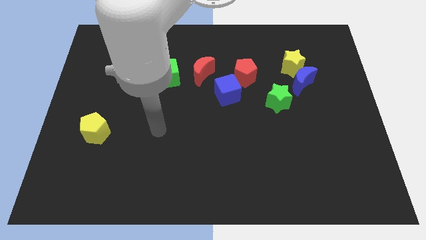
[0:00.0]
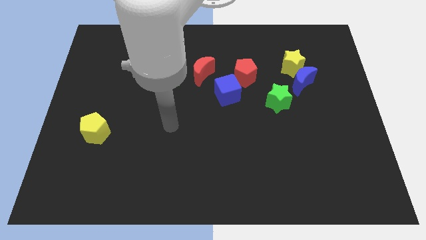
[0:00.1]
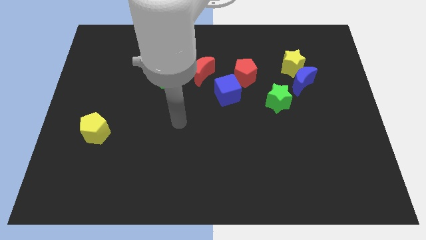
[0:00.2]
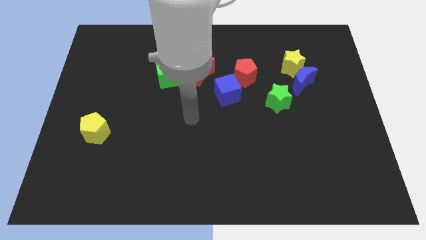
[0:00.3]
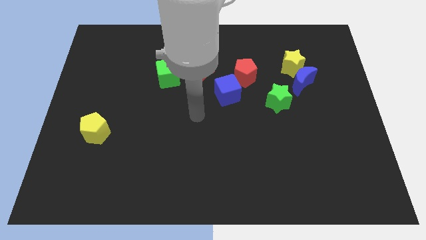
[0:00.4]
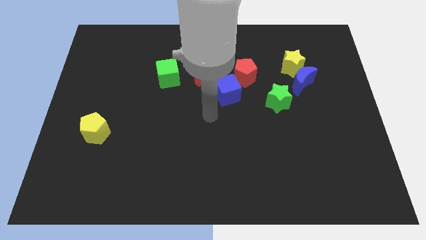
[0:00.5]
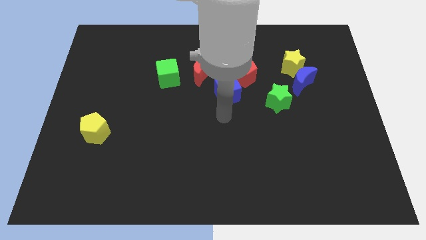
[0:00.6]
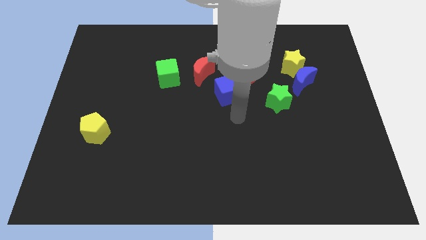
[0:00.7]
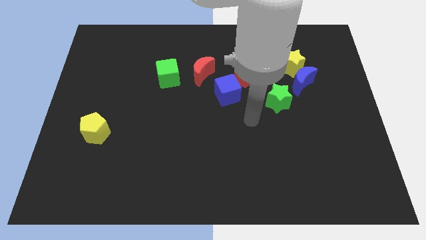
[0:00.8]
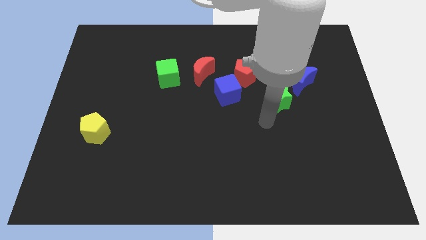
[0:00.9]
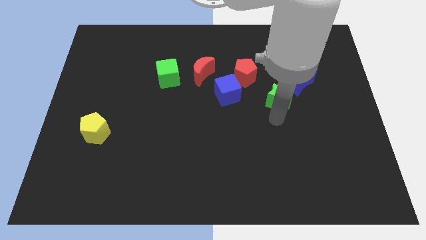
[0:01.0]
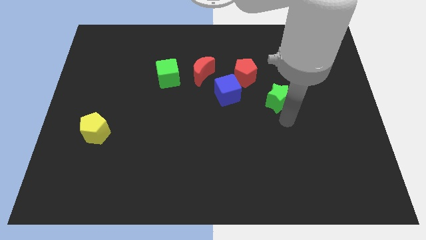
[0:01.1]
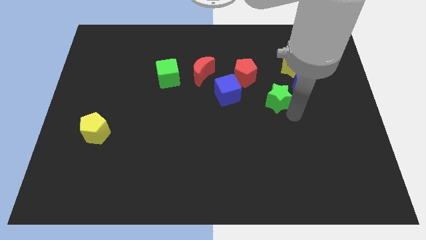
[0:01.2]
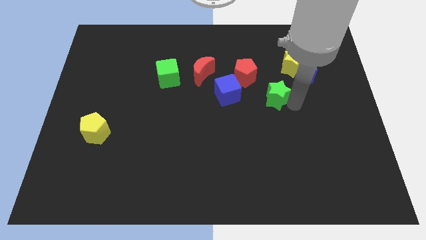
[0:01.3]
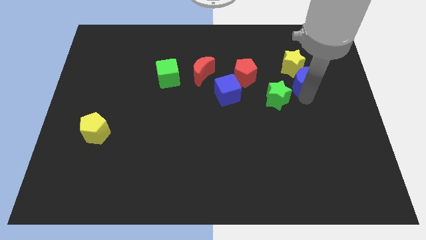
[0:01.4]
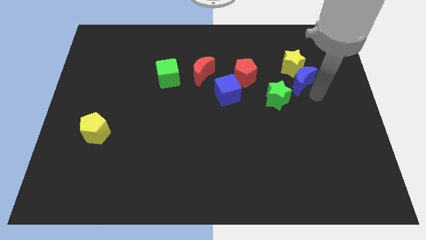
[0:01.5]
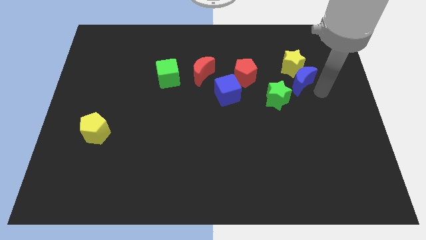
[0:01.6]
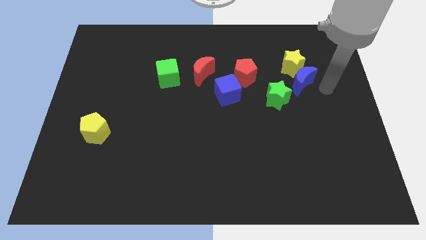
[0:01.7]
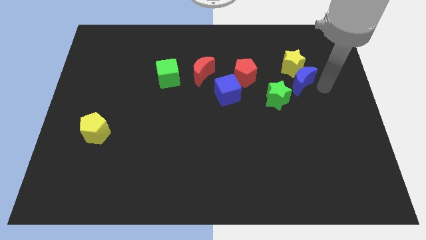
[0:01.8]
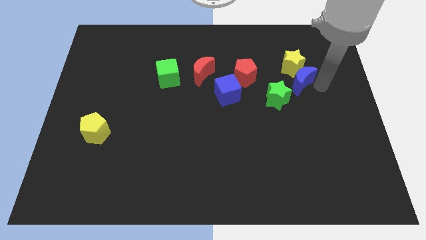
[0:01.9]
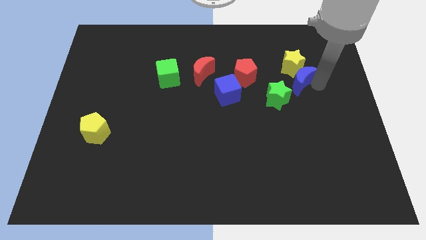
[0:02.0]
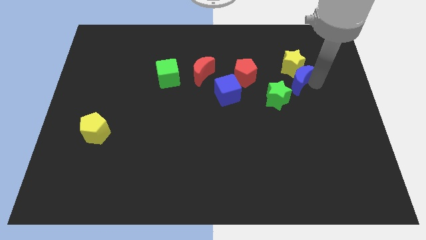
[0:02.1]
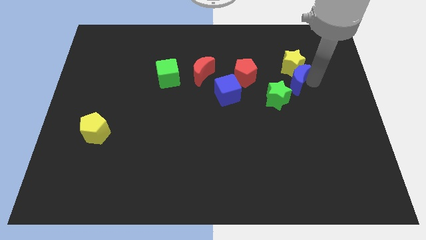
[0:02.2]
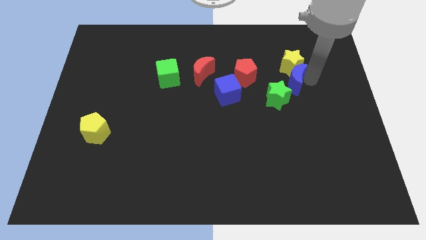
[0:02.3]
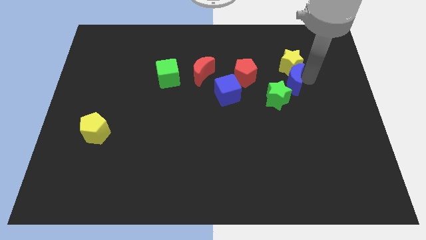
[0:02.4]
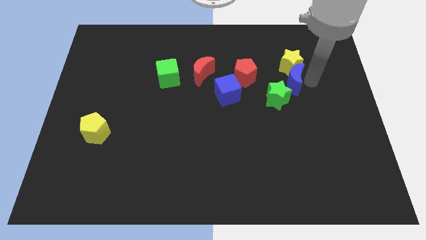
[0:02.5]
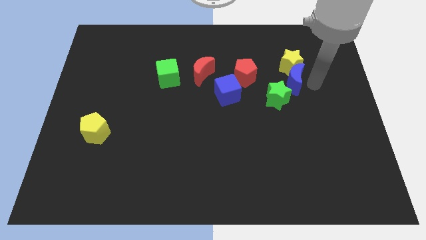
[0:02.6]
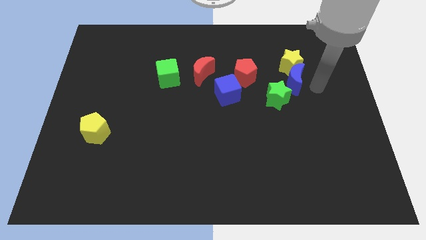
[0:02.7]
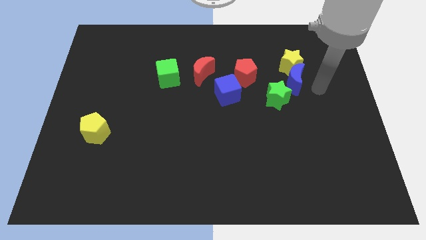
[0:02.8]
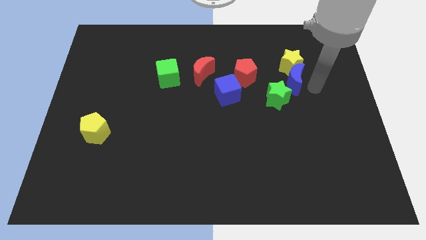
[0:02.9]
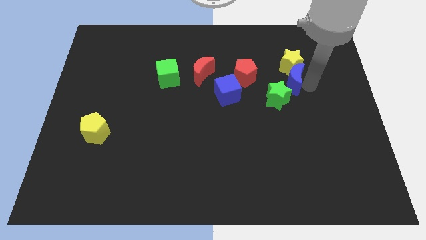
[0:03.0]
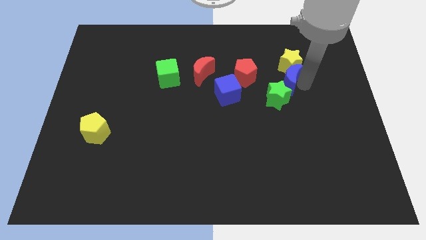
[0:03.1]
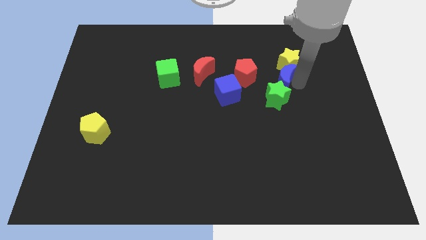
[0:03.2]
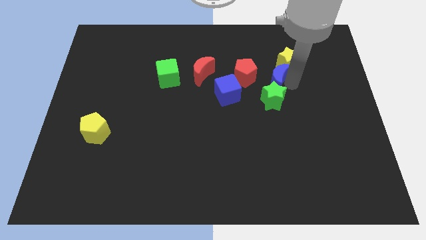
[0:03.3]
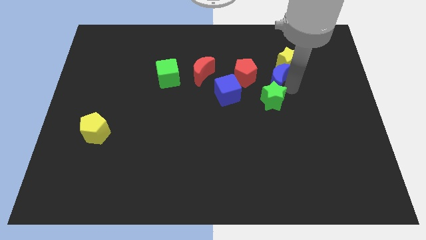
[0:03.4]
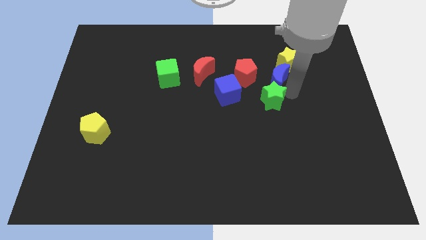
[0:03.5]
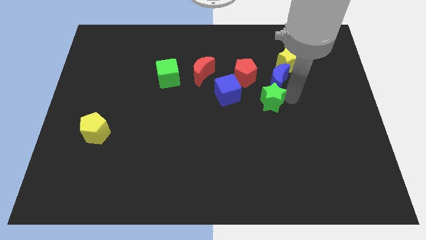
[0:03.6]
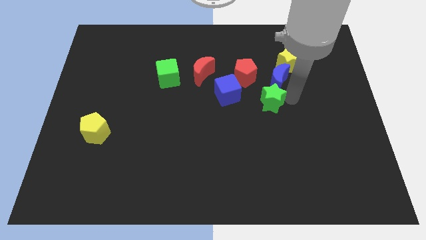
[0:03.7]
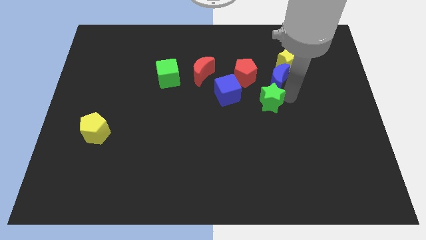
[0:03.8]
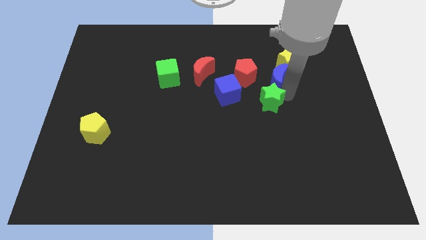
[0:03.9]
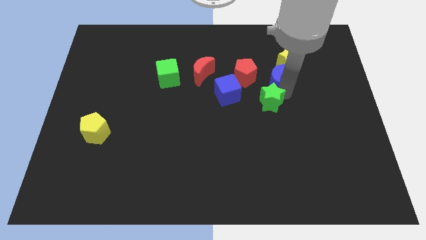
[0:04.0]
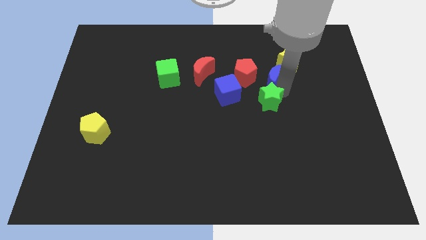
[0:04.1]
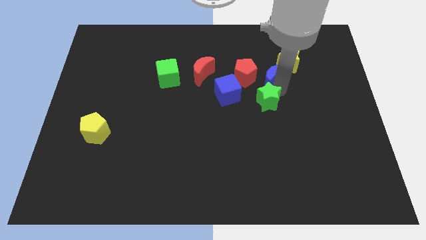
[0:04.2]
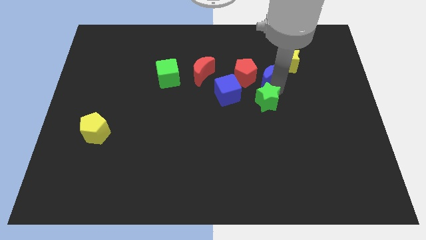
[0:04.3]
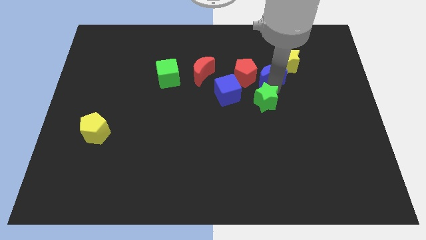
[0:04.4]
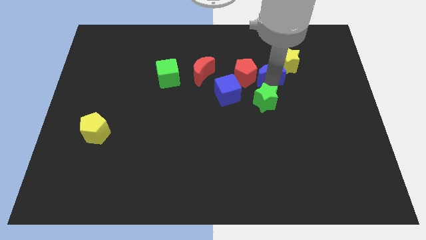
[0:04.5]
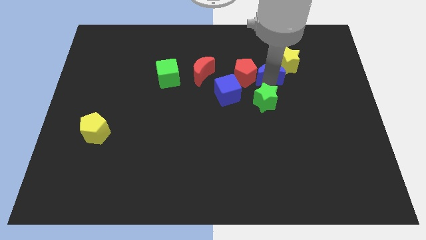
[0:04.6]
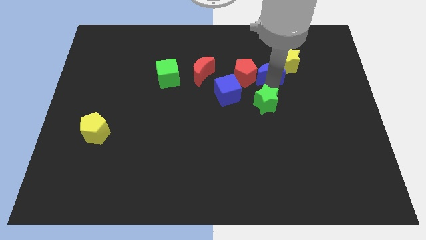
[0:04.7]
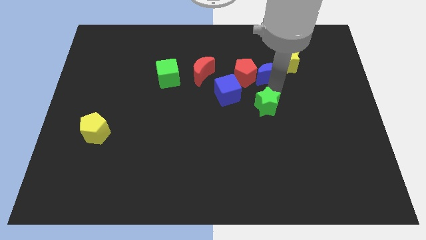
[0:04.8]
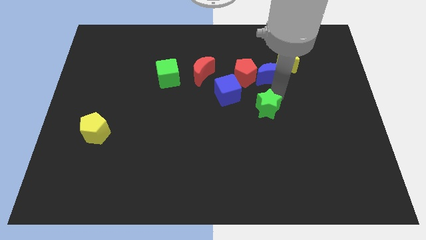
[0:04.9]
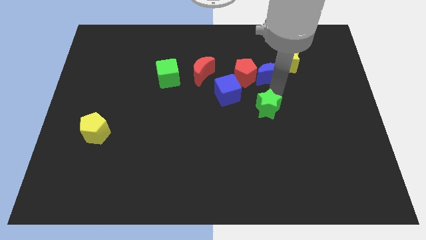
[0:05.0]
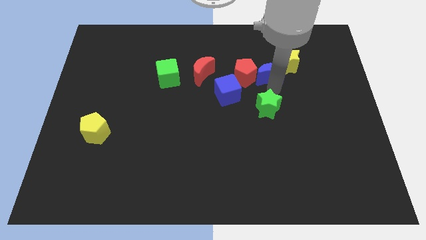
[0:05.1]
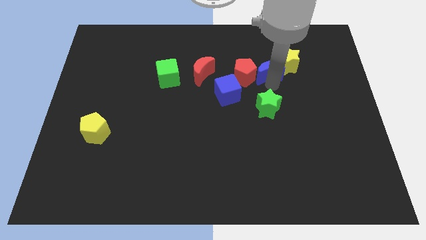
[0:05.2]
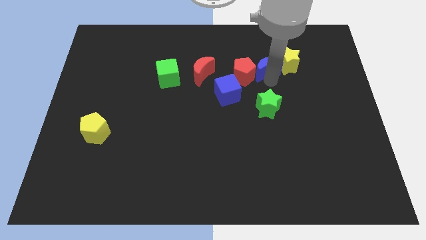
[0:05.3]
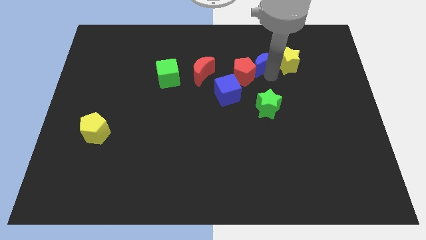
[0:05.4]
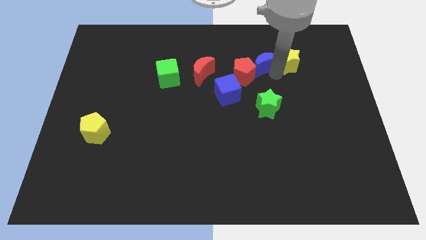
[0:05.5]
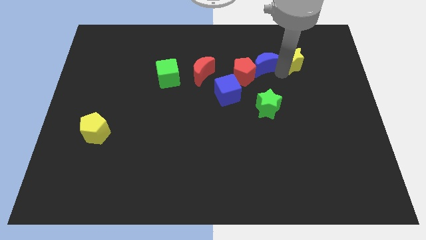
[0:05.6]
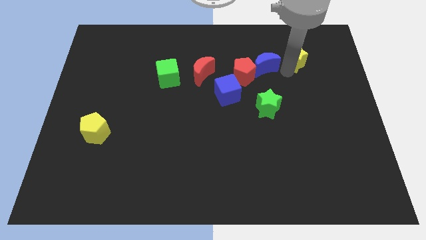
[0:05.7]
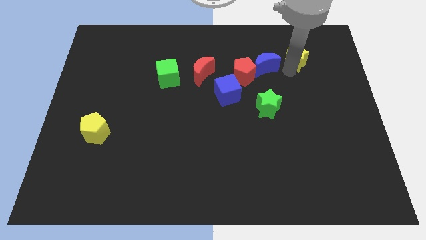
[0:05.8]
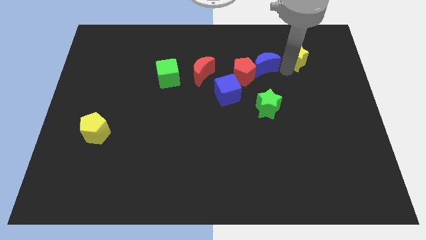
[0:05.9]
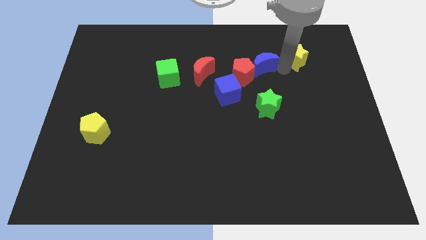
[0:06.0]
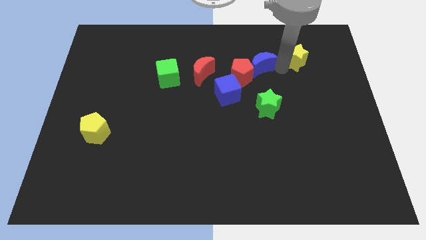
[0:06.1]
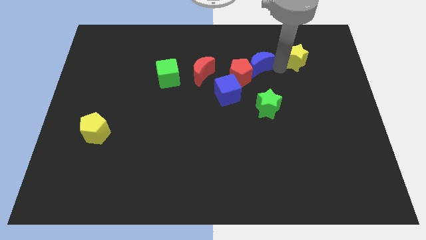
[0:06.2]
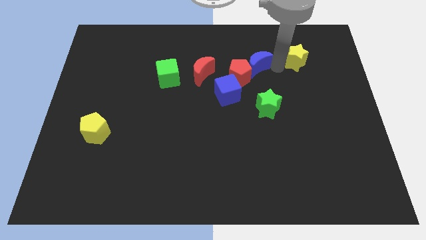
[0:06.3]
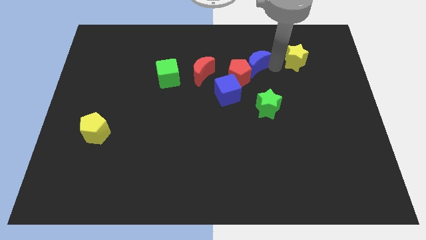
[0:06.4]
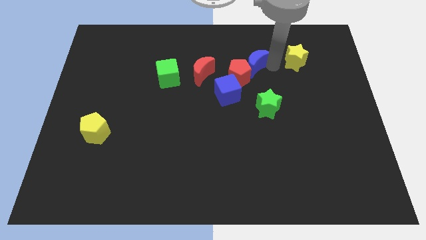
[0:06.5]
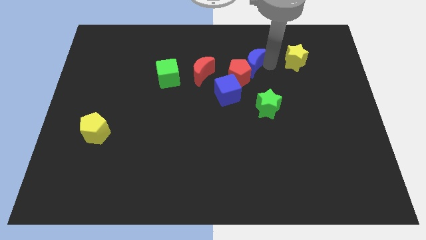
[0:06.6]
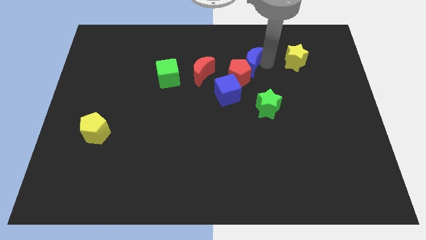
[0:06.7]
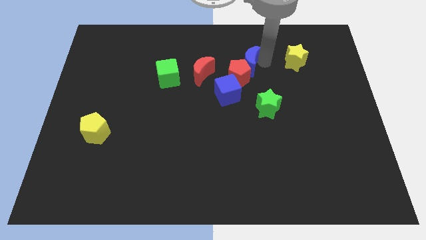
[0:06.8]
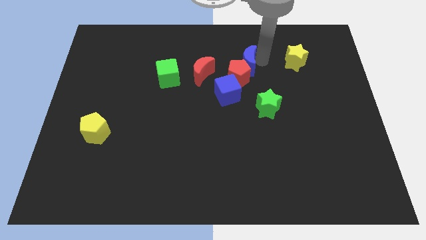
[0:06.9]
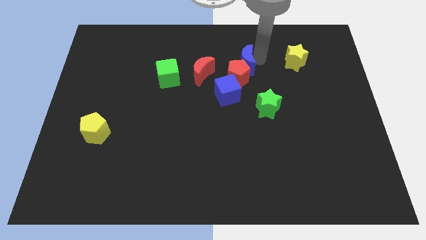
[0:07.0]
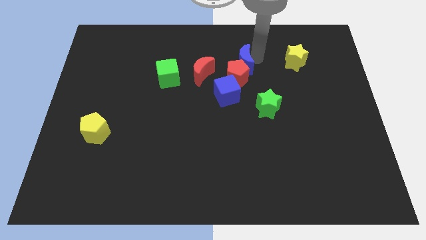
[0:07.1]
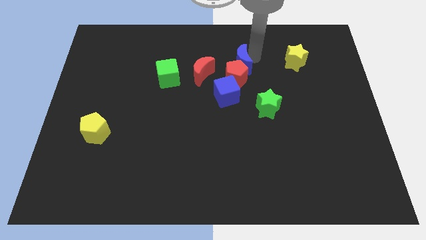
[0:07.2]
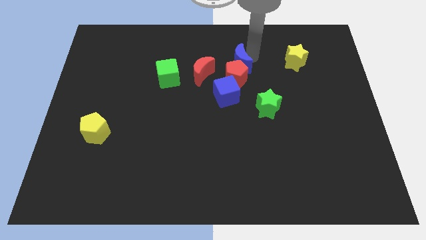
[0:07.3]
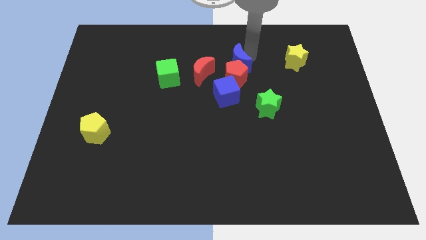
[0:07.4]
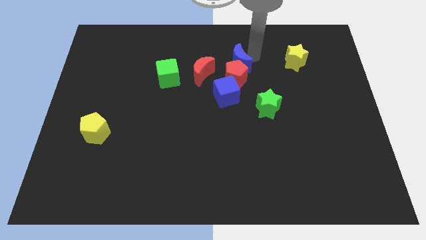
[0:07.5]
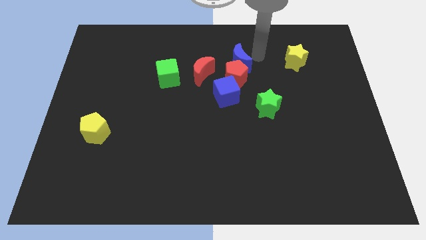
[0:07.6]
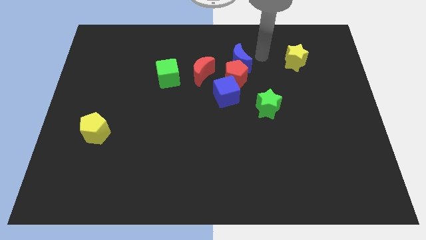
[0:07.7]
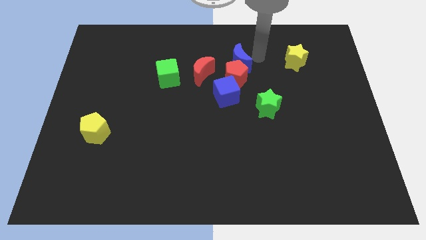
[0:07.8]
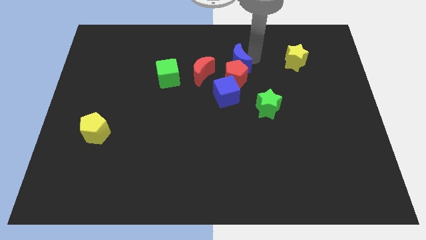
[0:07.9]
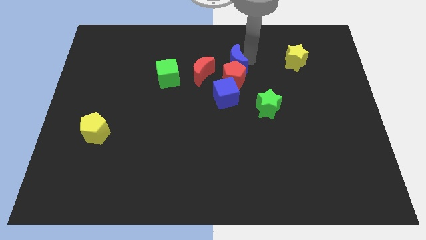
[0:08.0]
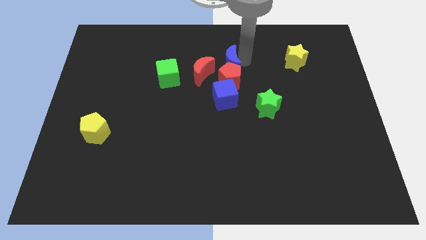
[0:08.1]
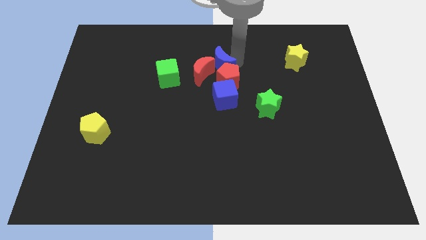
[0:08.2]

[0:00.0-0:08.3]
move the blue moon to the red moon
